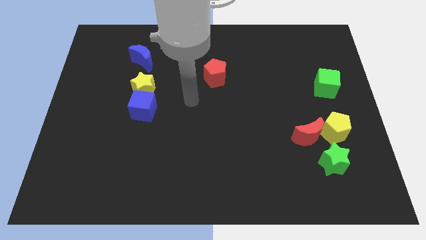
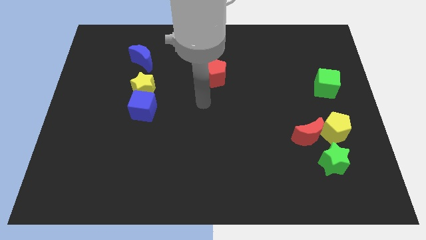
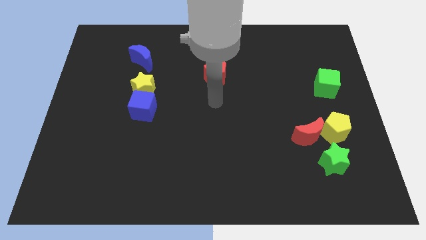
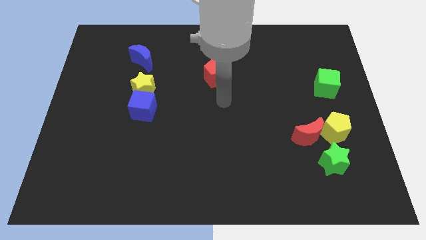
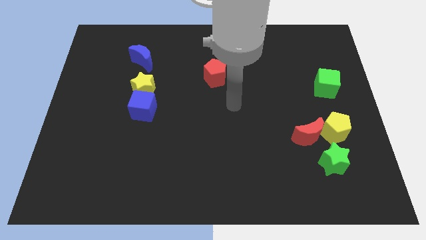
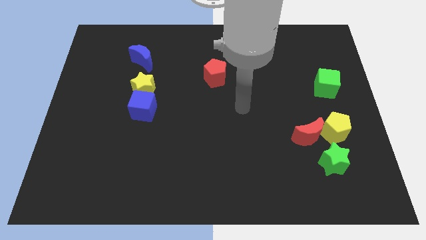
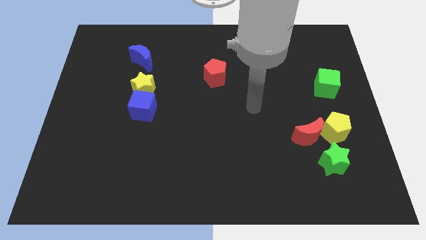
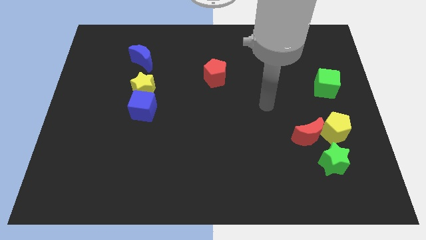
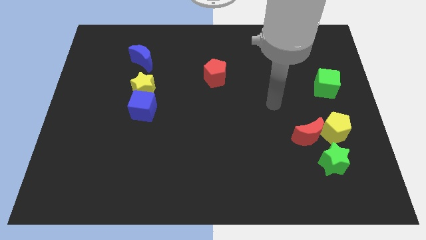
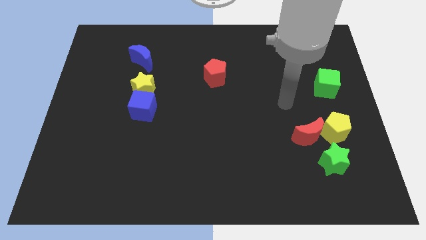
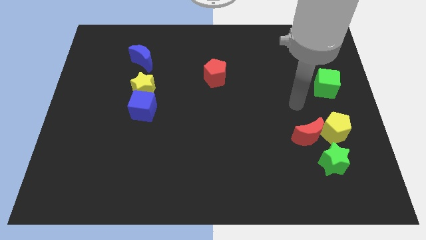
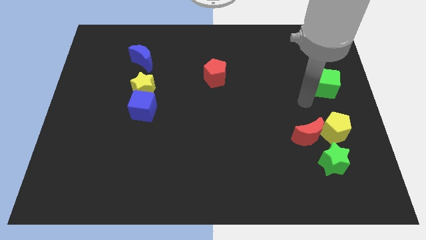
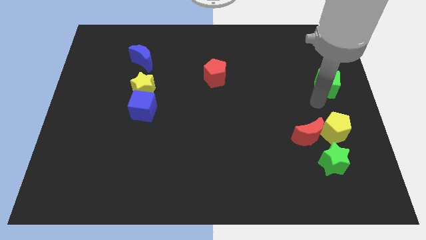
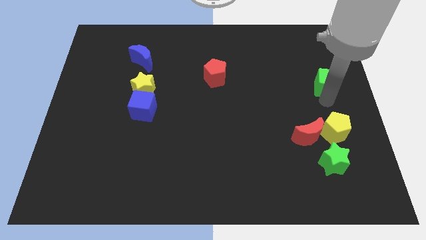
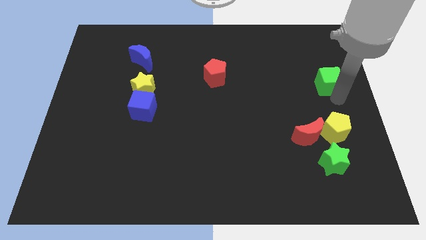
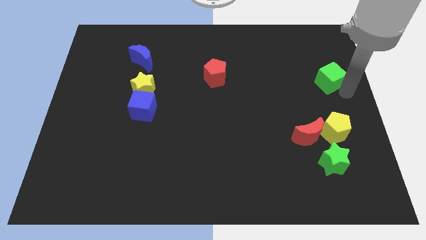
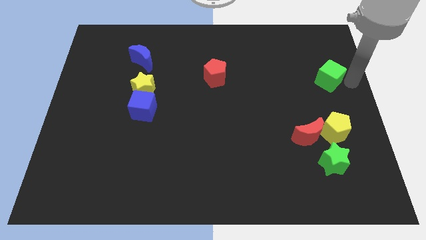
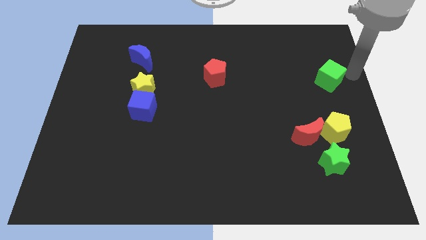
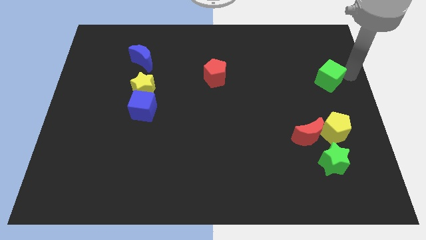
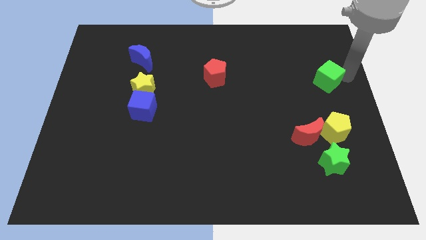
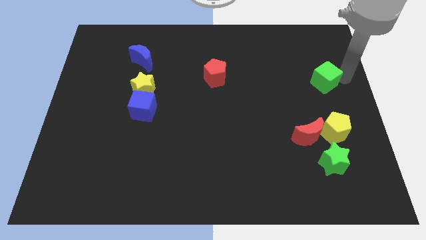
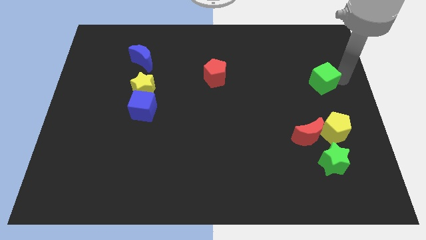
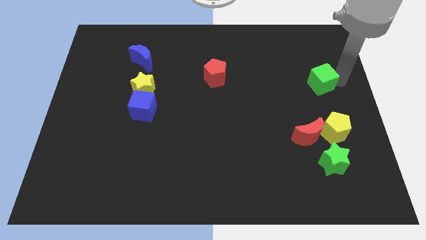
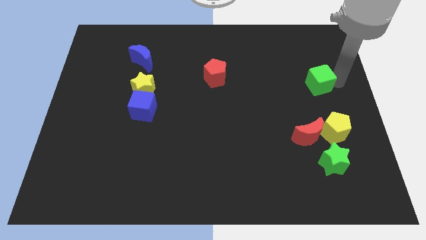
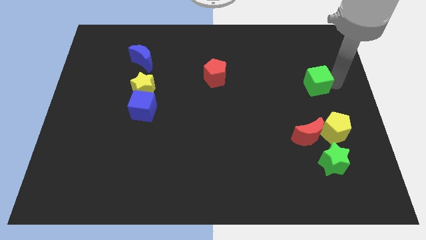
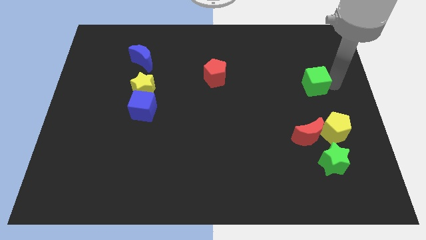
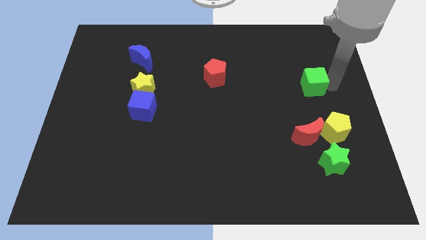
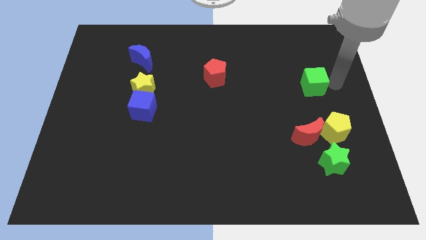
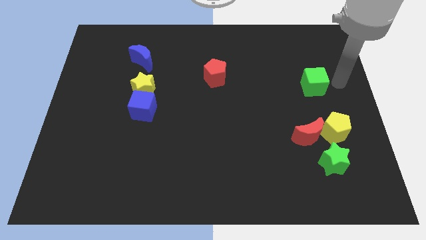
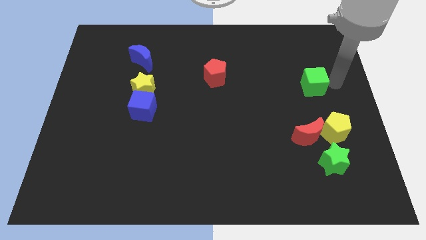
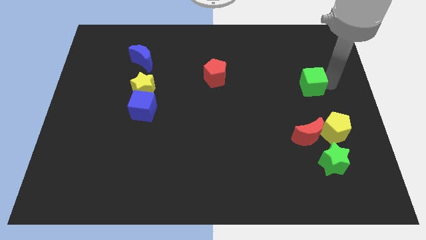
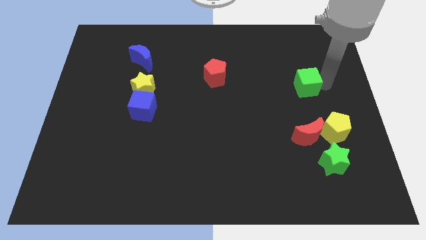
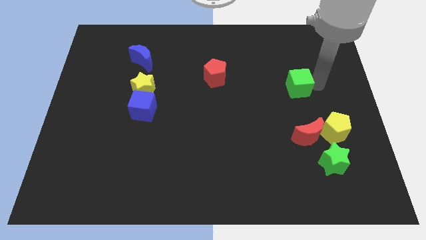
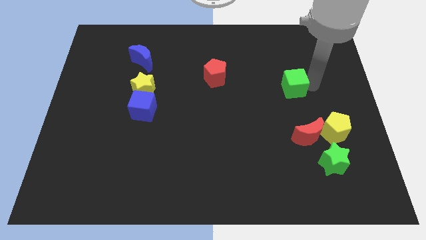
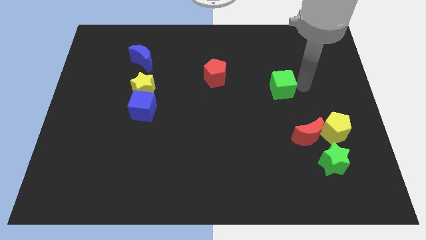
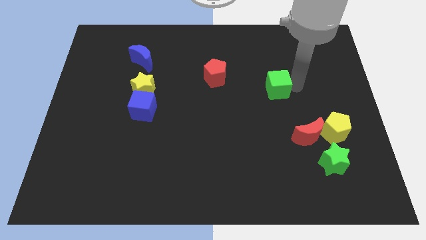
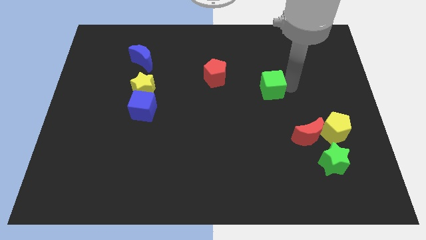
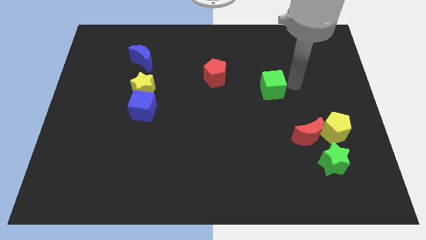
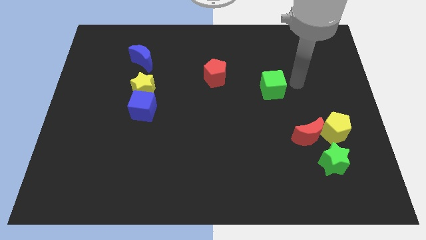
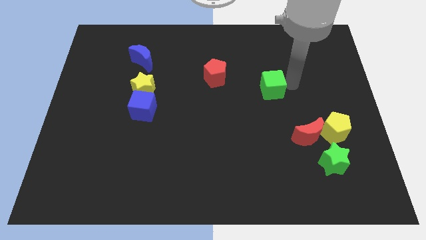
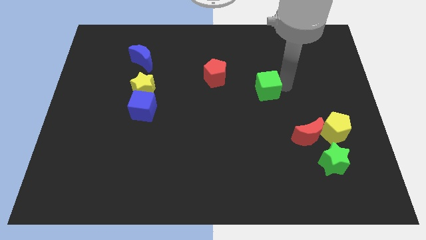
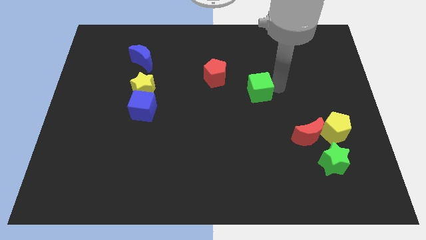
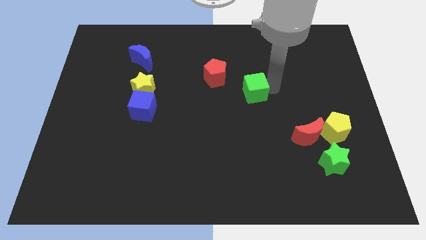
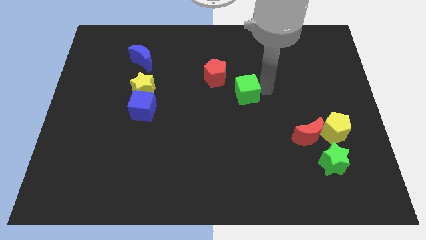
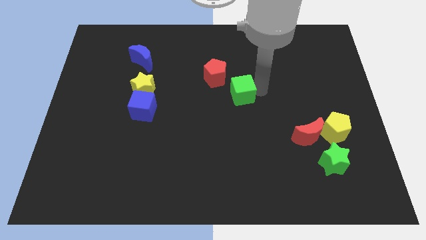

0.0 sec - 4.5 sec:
slide the green cube left

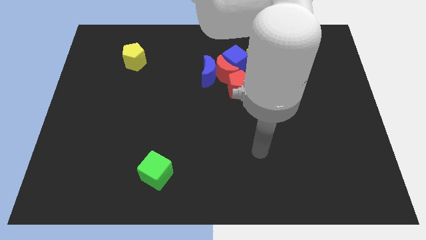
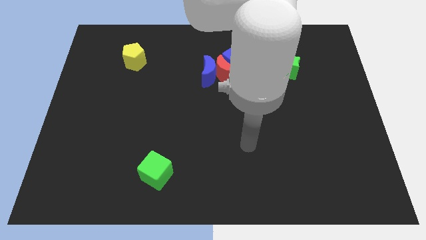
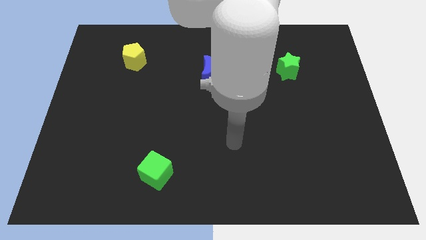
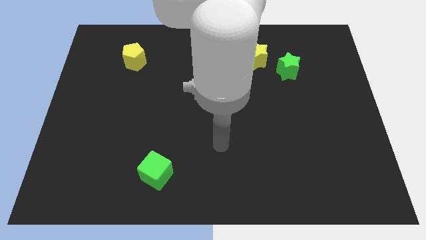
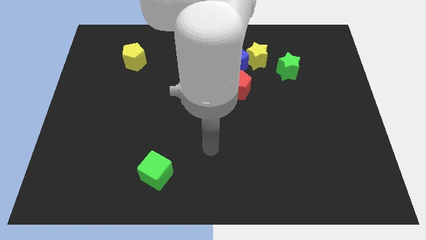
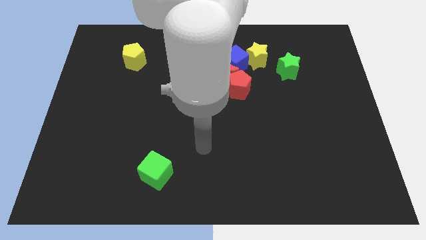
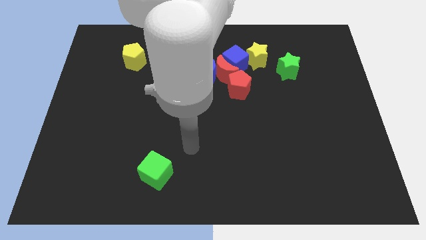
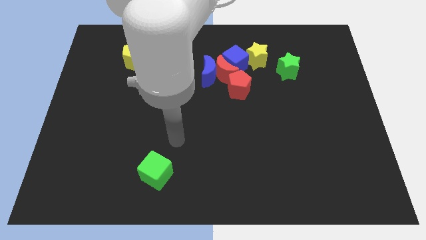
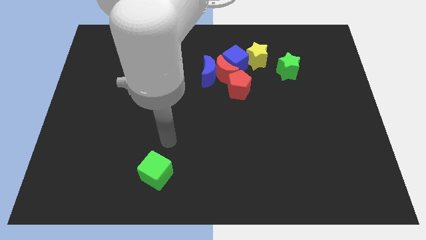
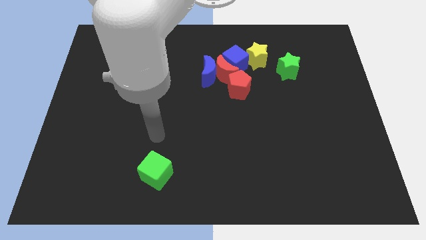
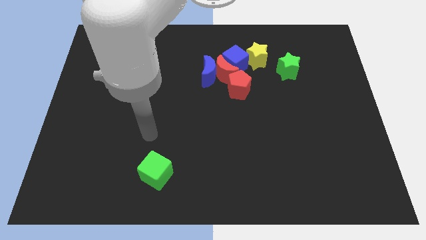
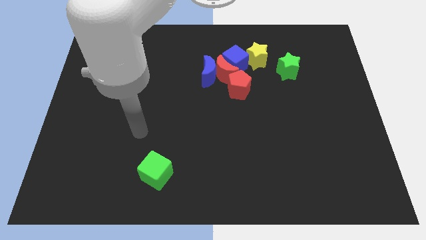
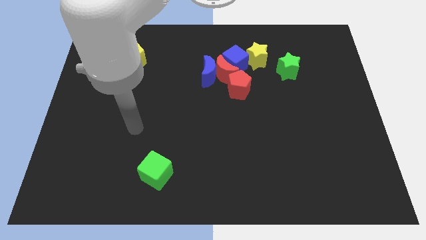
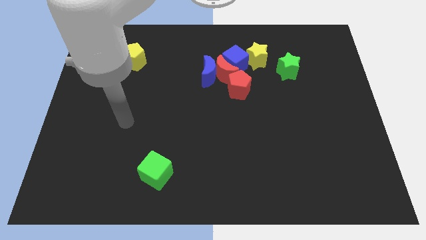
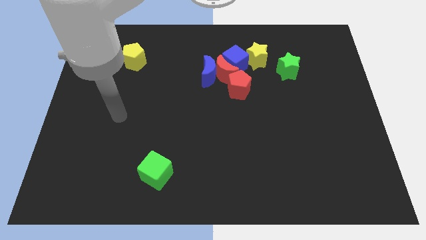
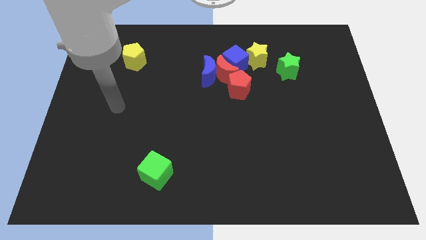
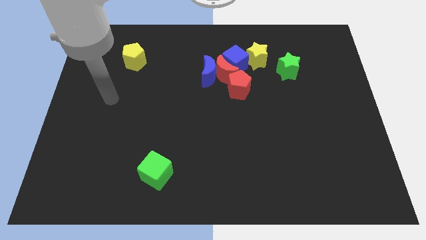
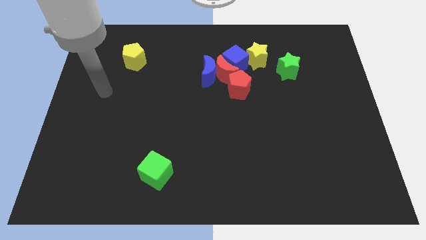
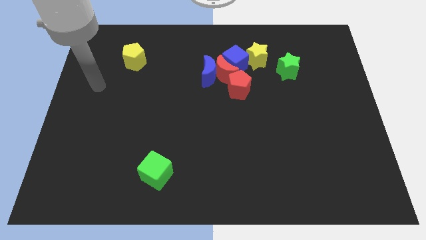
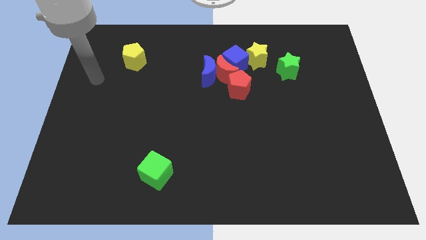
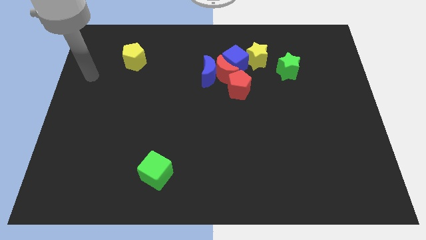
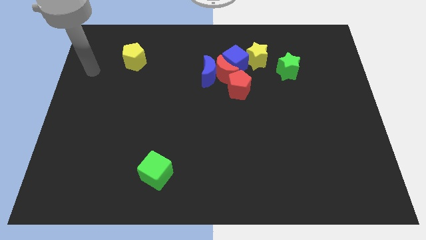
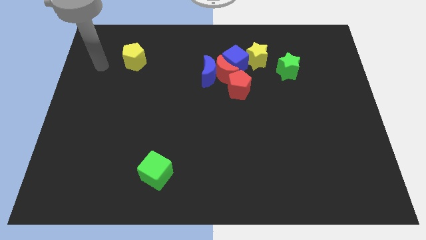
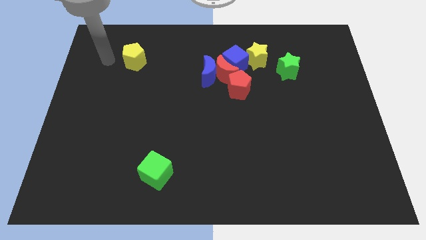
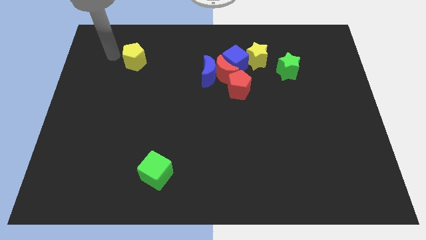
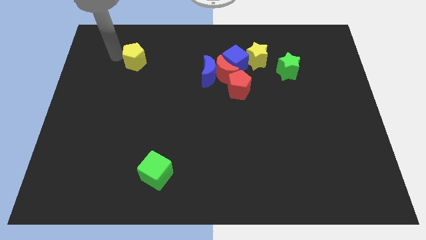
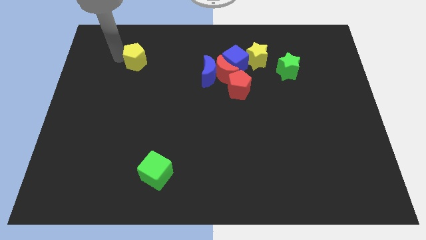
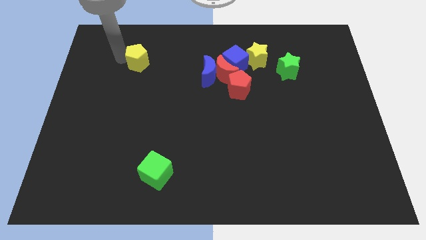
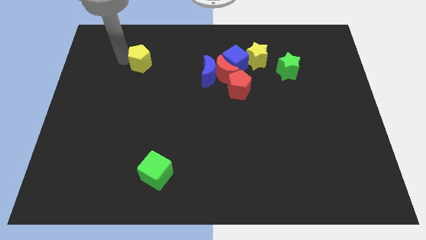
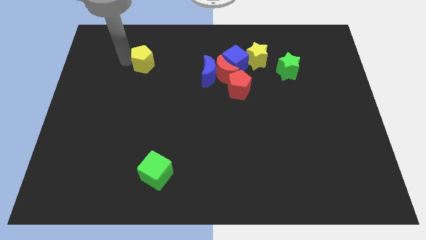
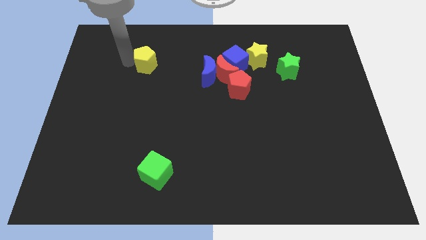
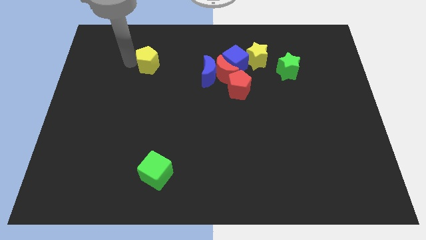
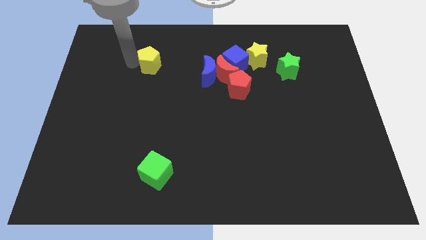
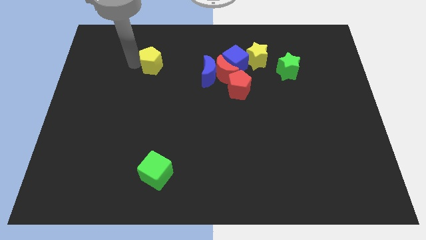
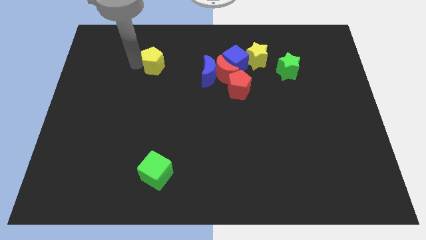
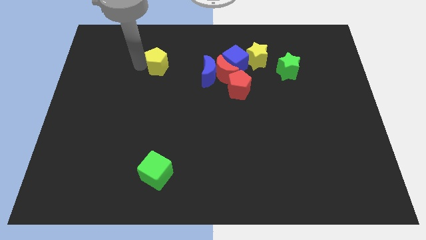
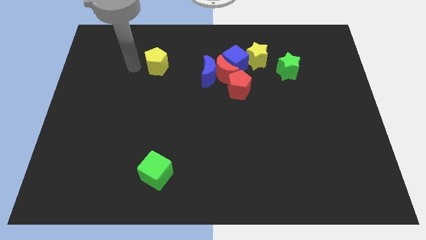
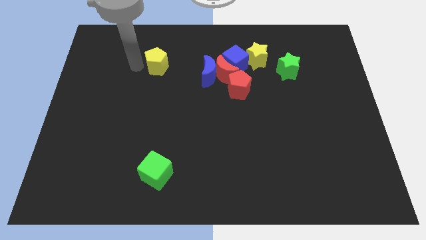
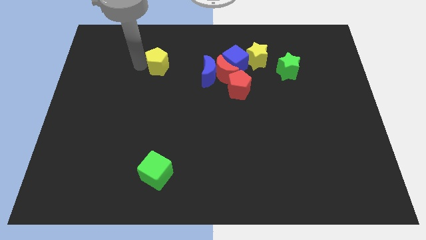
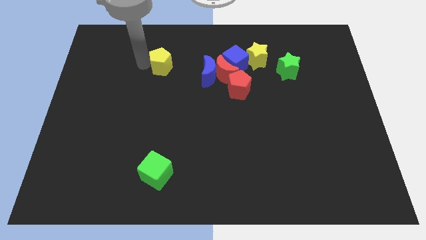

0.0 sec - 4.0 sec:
move the yellow pentagon slightly right
